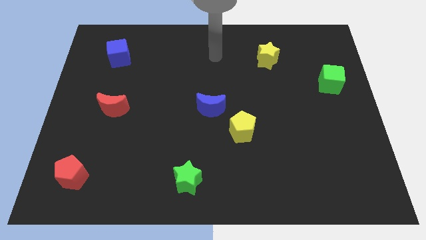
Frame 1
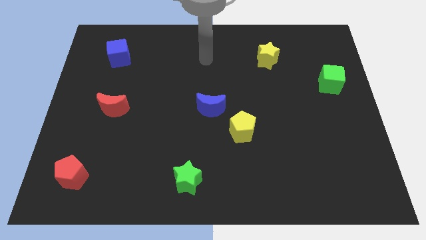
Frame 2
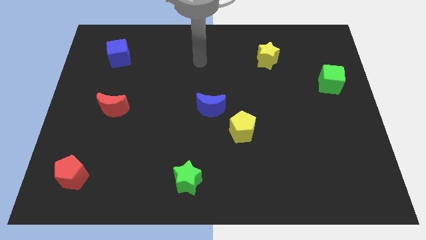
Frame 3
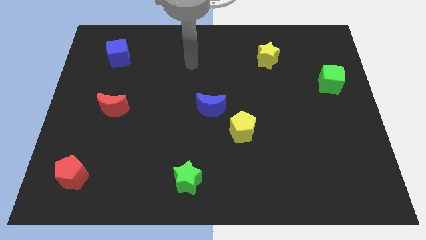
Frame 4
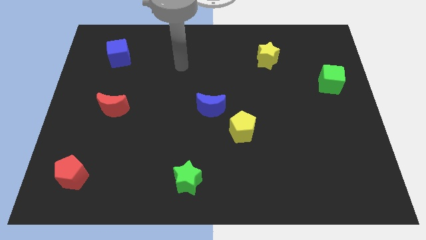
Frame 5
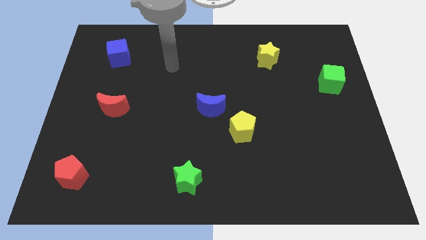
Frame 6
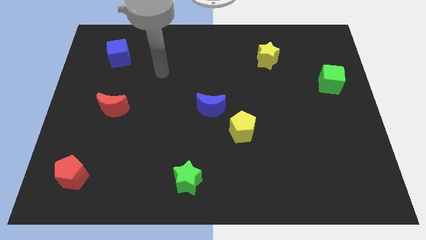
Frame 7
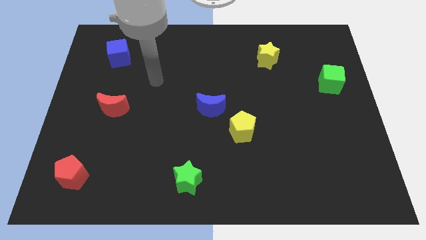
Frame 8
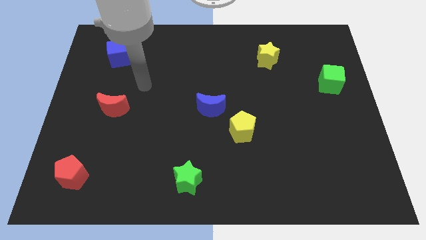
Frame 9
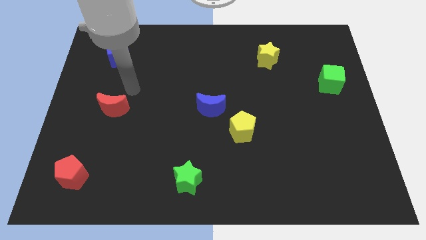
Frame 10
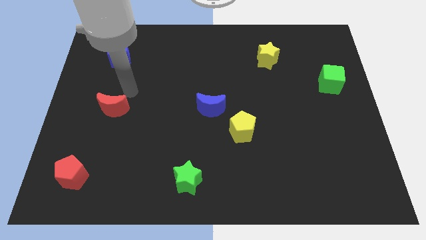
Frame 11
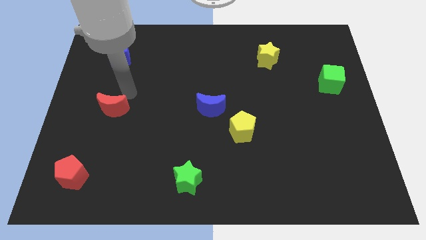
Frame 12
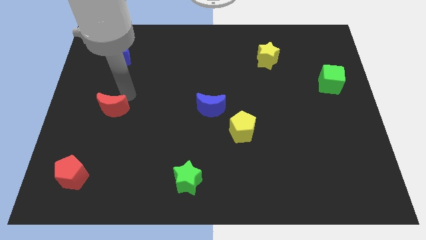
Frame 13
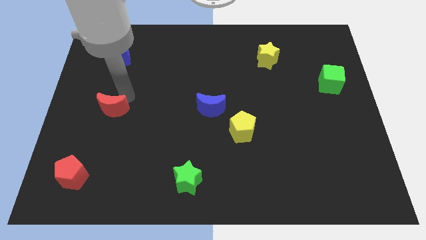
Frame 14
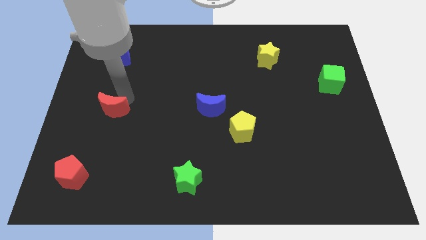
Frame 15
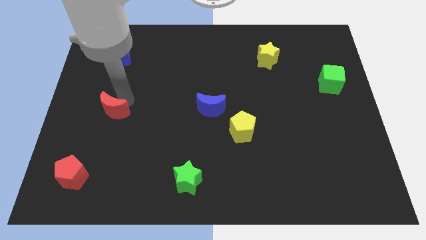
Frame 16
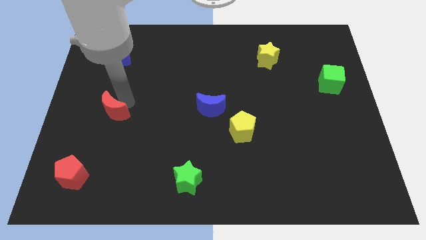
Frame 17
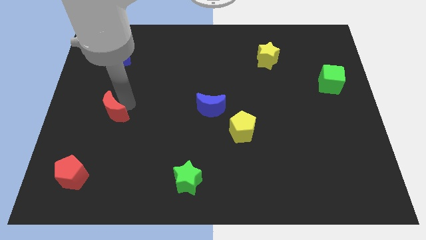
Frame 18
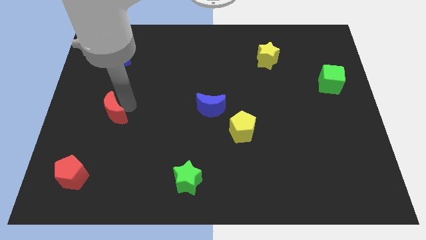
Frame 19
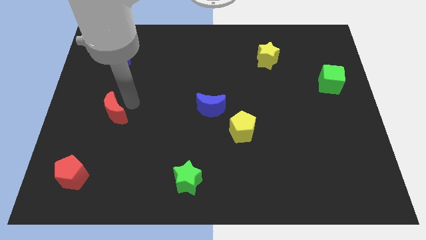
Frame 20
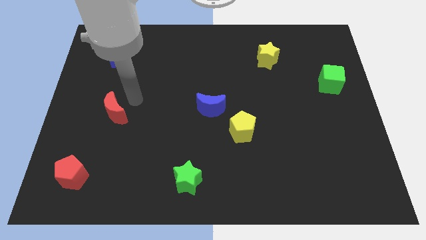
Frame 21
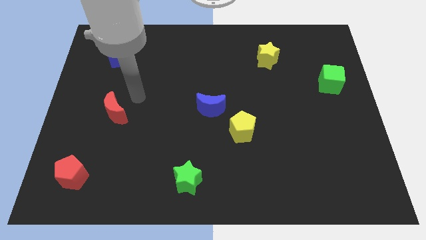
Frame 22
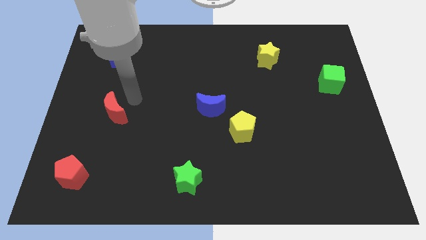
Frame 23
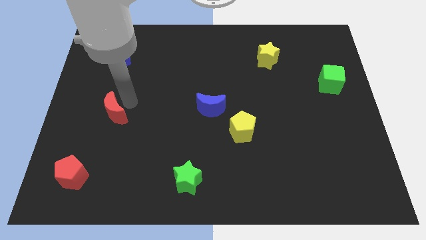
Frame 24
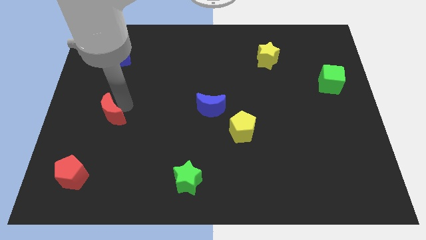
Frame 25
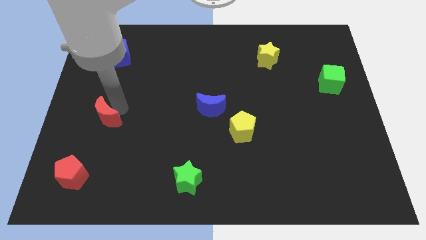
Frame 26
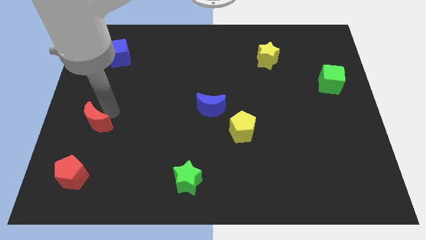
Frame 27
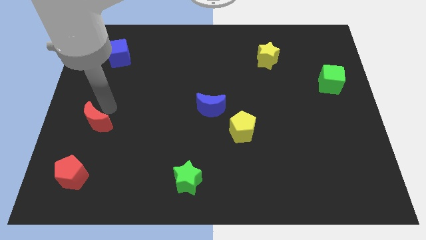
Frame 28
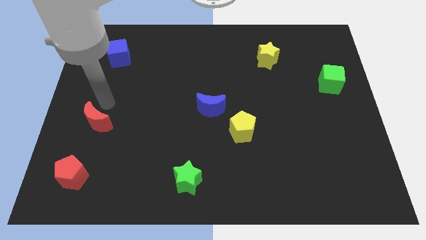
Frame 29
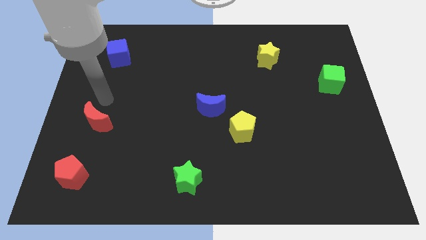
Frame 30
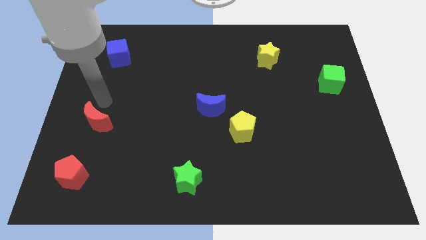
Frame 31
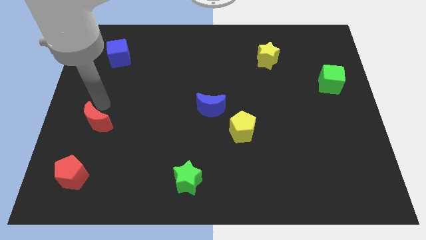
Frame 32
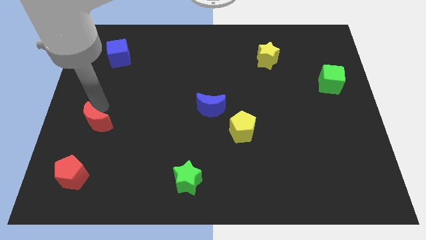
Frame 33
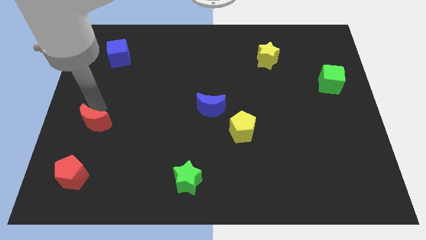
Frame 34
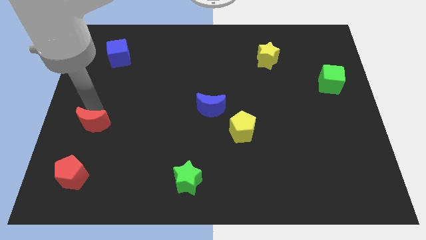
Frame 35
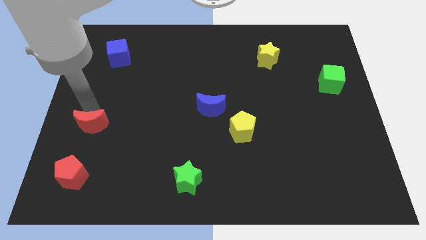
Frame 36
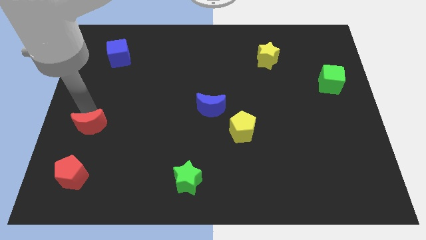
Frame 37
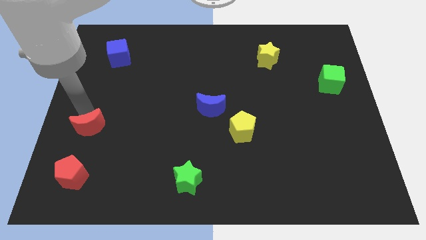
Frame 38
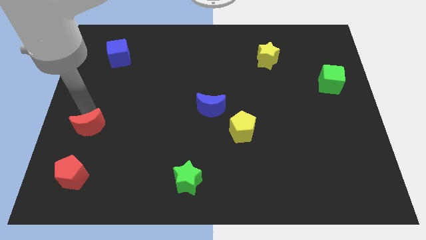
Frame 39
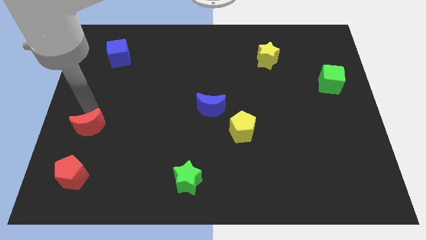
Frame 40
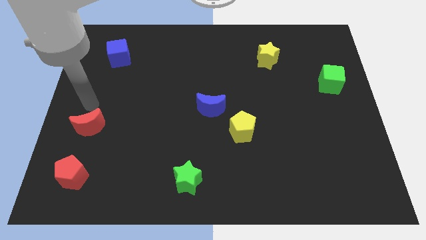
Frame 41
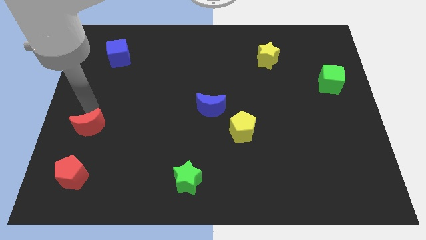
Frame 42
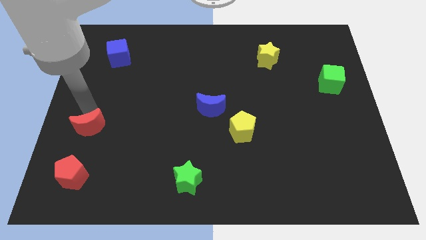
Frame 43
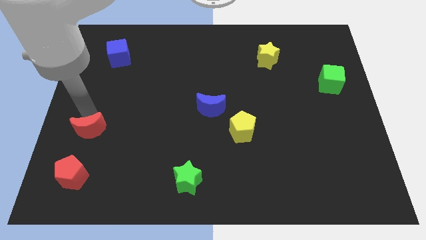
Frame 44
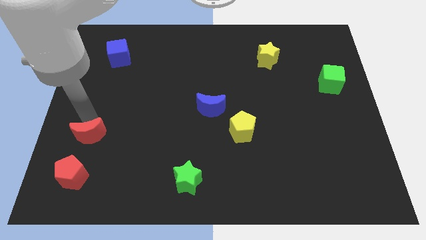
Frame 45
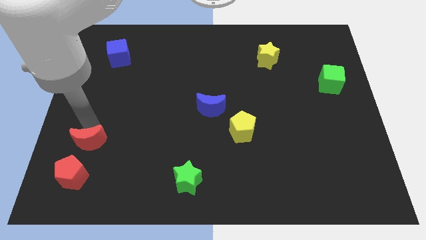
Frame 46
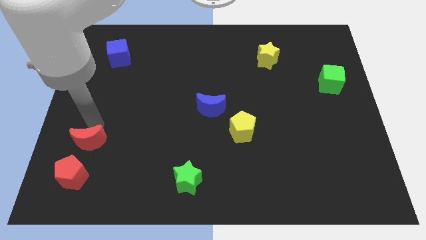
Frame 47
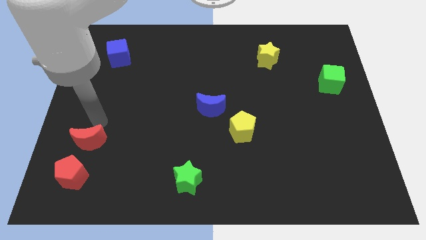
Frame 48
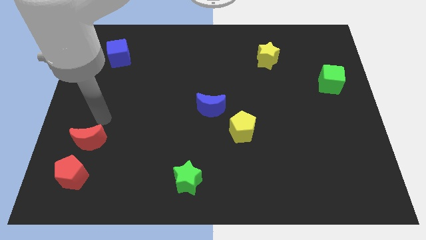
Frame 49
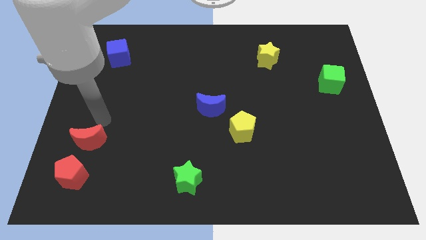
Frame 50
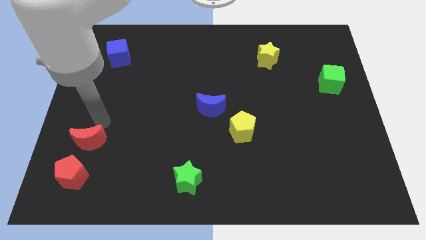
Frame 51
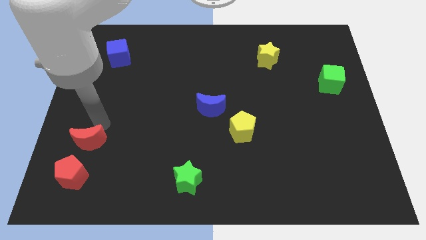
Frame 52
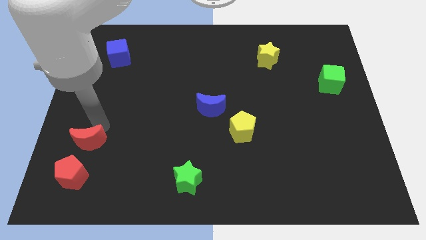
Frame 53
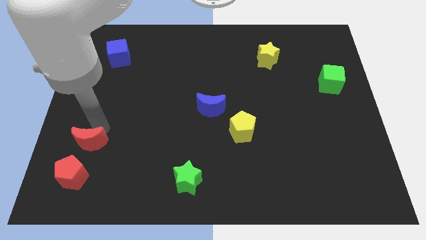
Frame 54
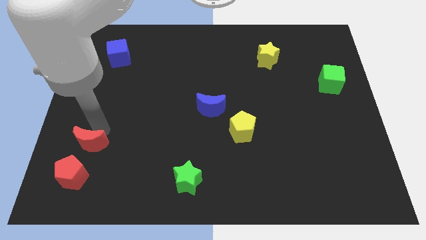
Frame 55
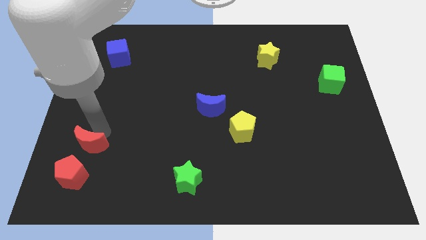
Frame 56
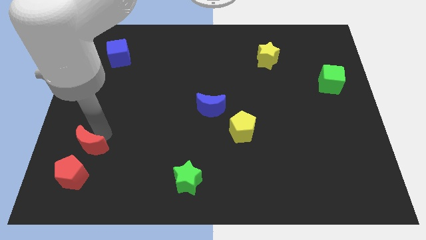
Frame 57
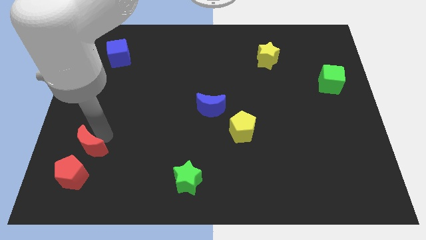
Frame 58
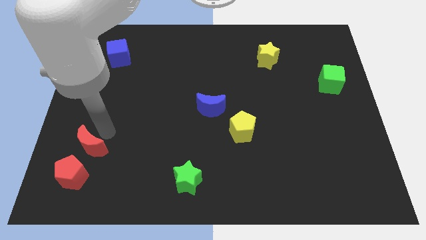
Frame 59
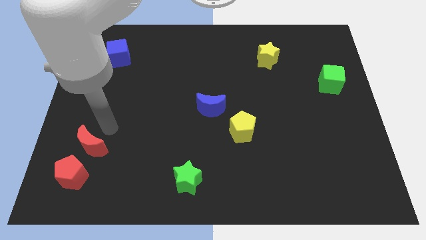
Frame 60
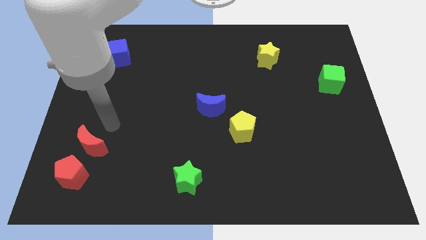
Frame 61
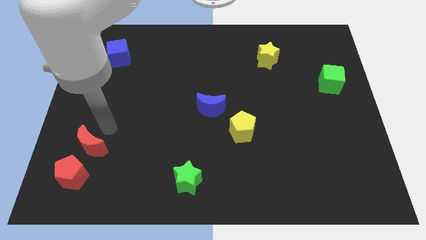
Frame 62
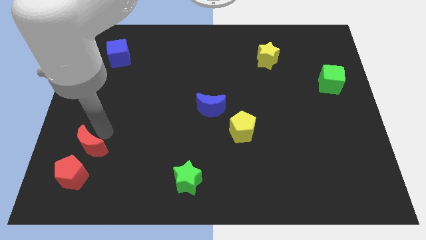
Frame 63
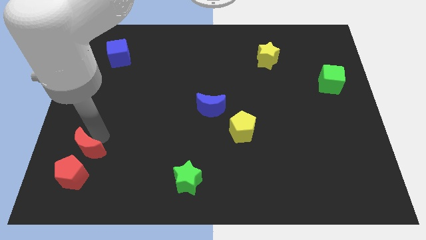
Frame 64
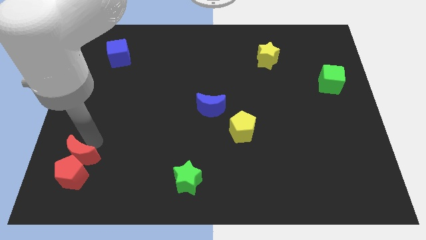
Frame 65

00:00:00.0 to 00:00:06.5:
move the red moon next to the red pentagon
